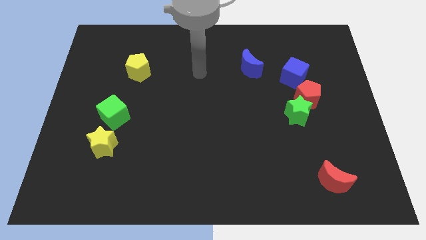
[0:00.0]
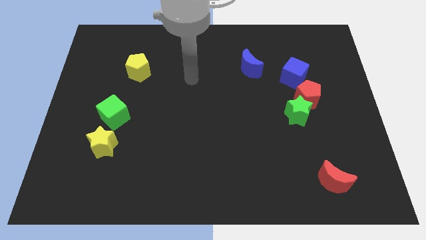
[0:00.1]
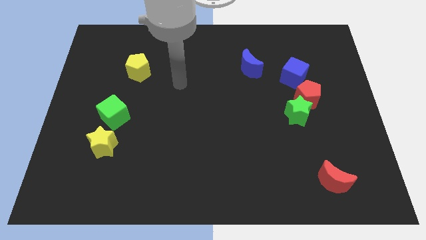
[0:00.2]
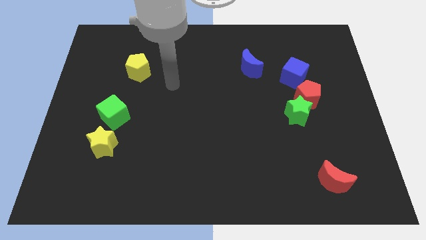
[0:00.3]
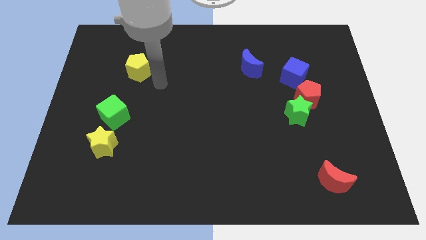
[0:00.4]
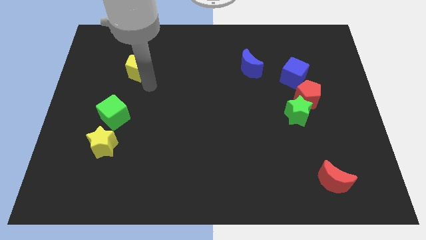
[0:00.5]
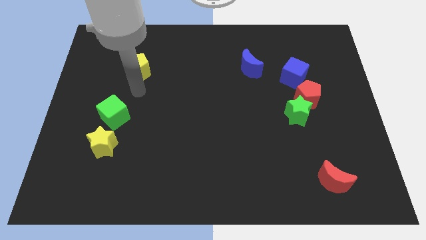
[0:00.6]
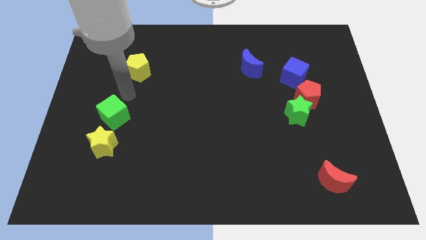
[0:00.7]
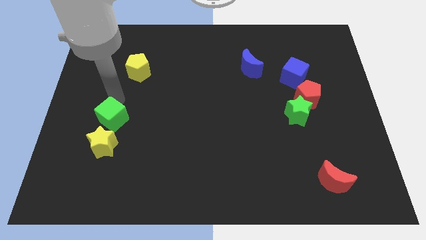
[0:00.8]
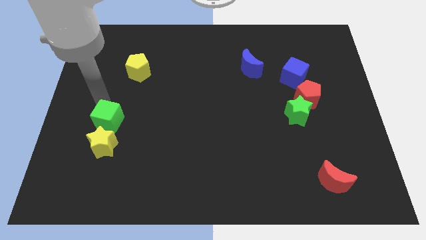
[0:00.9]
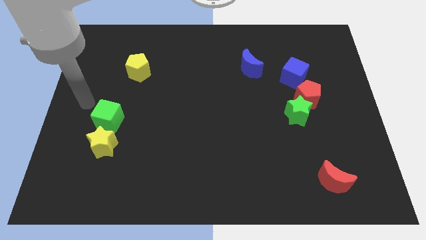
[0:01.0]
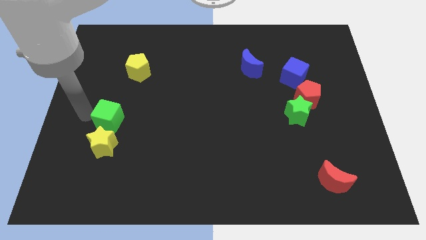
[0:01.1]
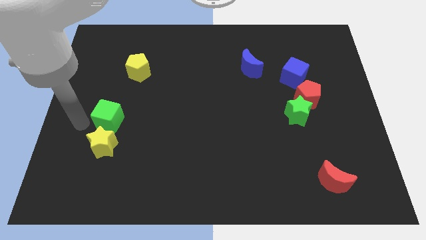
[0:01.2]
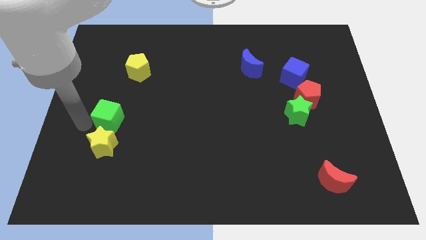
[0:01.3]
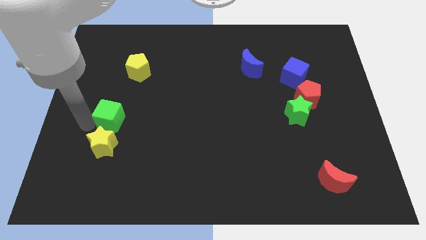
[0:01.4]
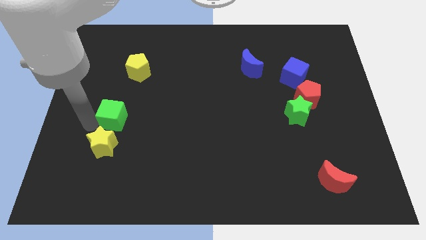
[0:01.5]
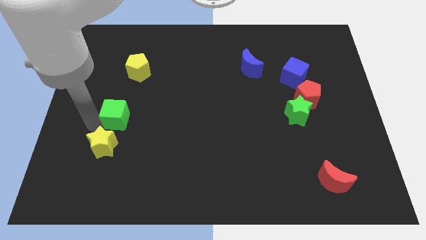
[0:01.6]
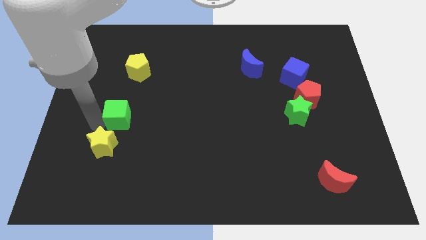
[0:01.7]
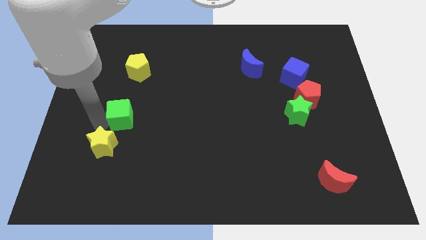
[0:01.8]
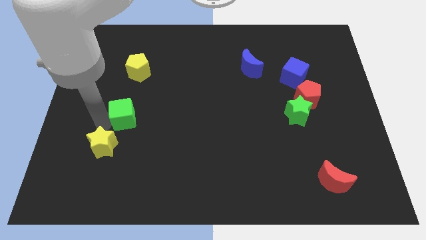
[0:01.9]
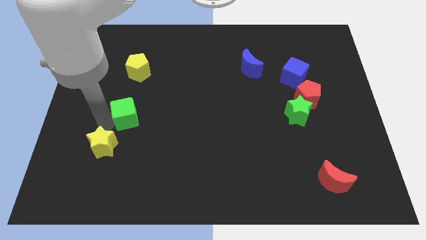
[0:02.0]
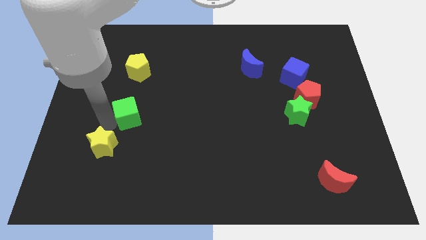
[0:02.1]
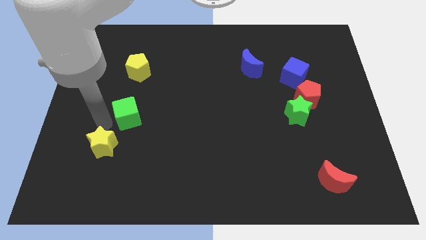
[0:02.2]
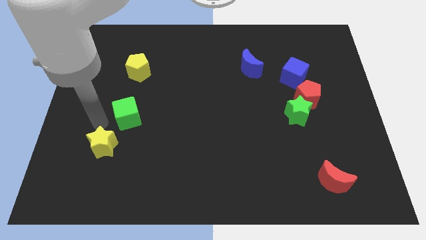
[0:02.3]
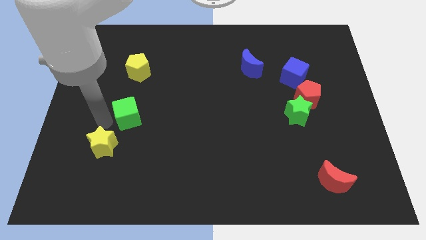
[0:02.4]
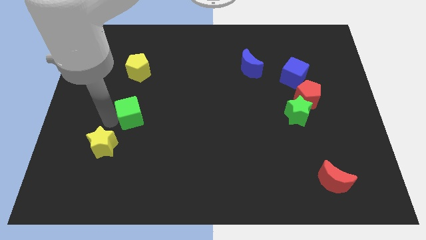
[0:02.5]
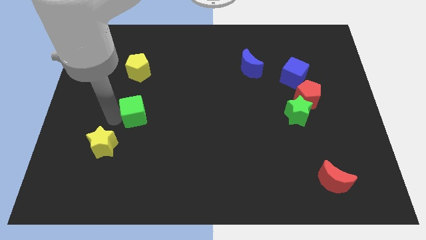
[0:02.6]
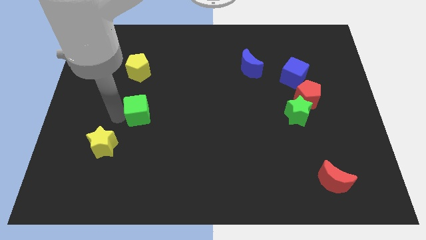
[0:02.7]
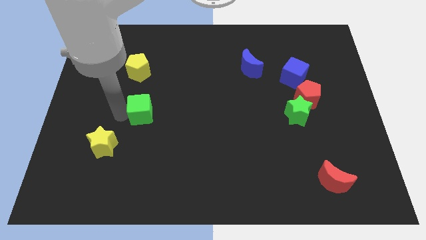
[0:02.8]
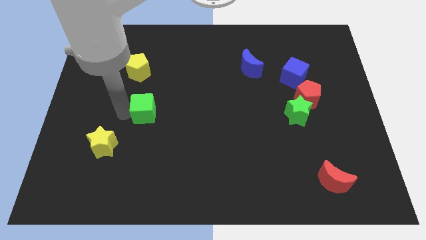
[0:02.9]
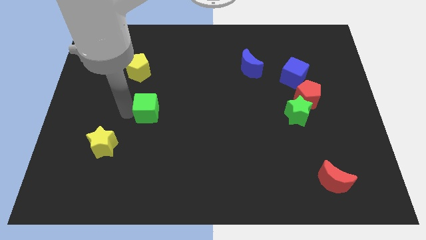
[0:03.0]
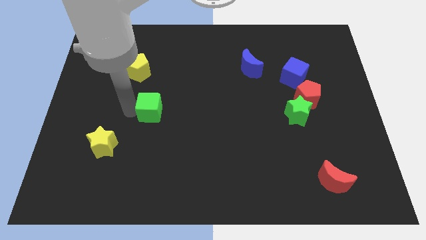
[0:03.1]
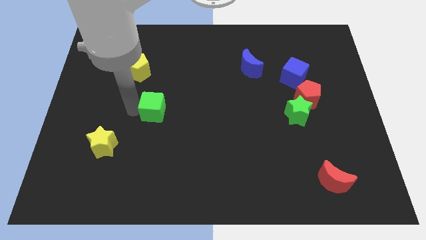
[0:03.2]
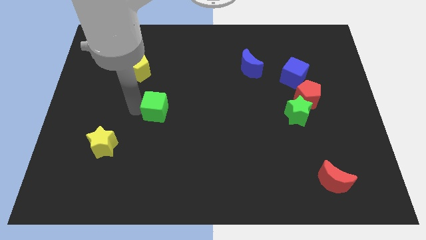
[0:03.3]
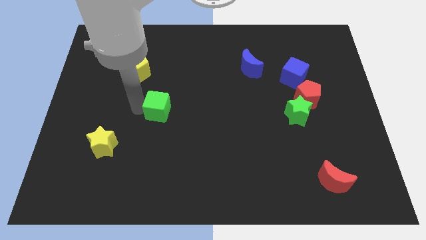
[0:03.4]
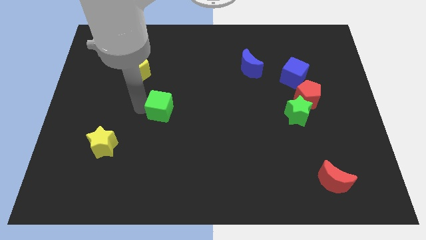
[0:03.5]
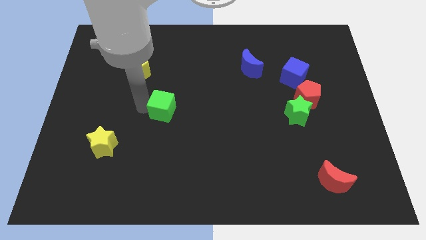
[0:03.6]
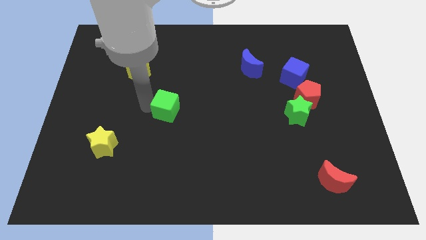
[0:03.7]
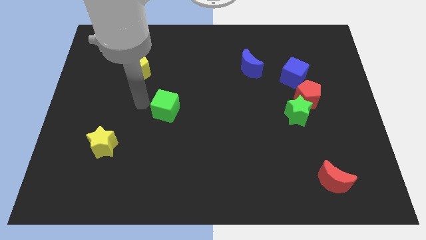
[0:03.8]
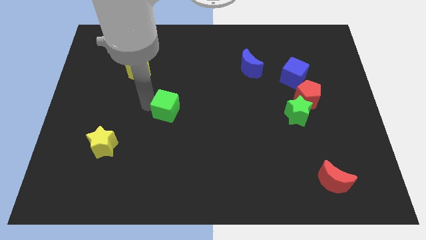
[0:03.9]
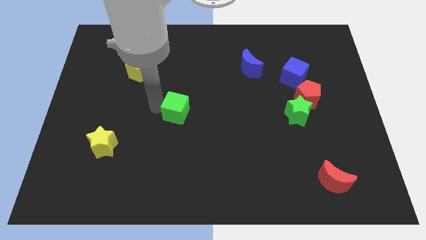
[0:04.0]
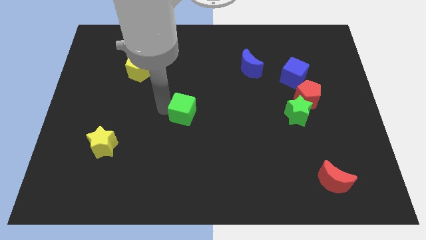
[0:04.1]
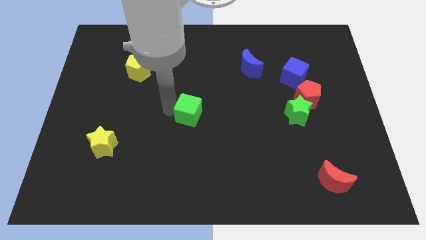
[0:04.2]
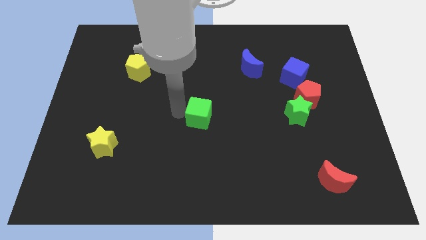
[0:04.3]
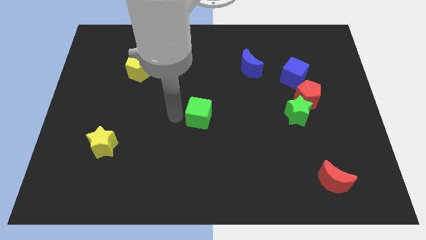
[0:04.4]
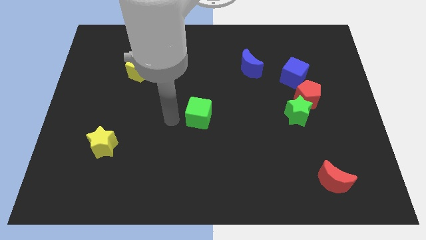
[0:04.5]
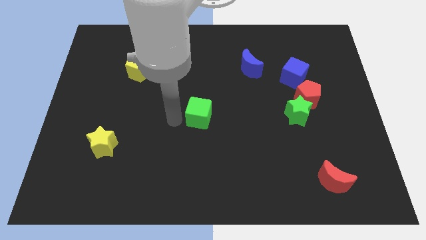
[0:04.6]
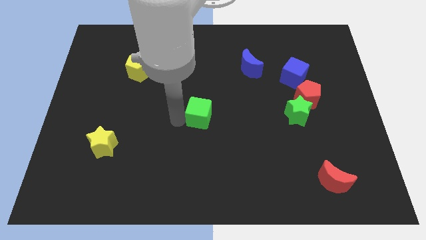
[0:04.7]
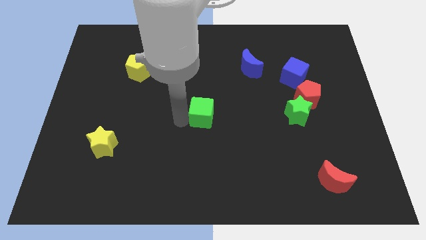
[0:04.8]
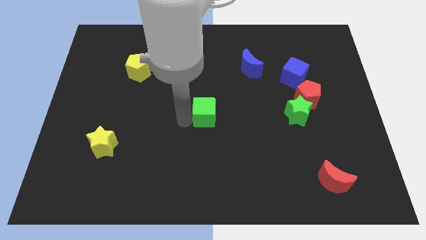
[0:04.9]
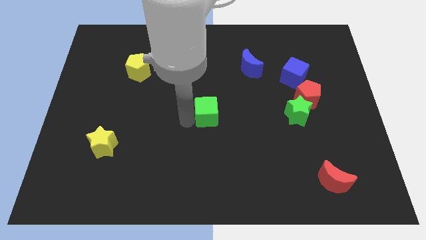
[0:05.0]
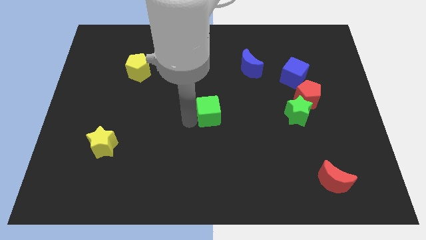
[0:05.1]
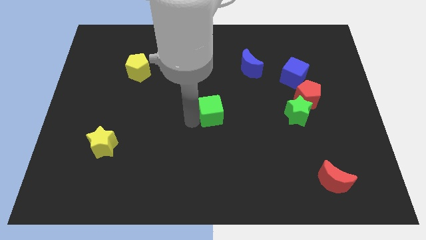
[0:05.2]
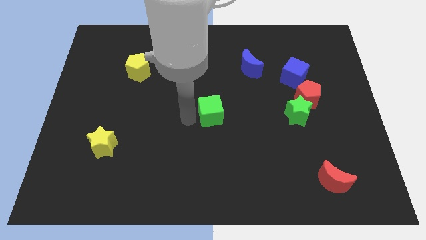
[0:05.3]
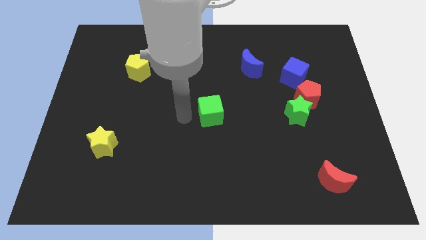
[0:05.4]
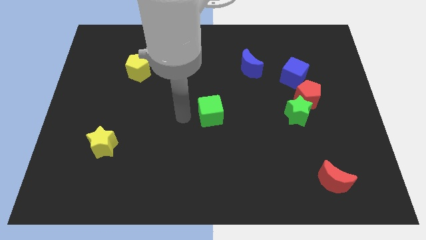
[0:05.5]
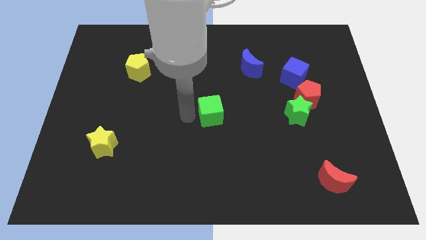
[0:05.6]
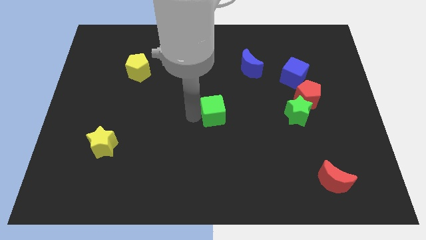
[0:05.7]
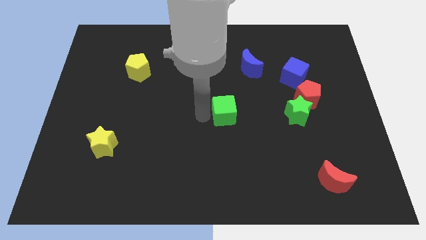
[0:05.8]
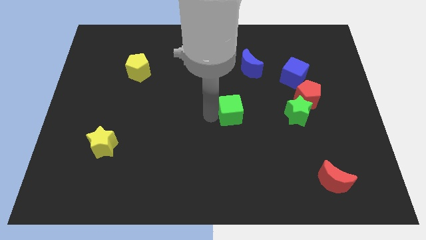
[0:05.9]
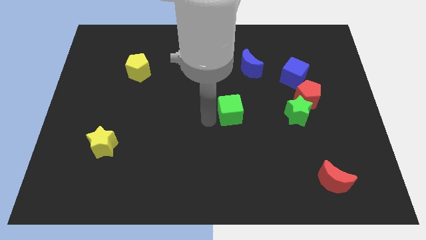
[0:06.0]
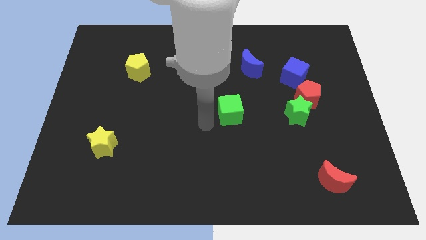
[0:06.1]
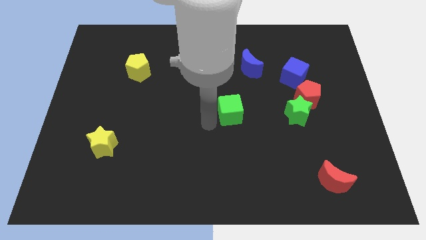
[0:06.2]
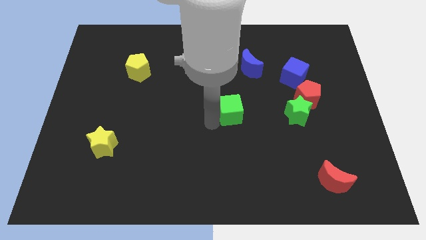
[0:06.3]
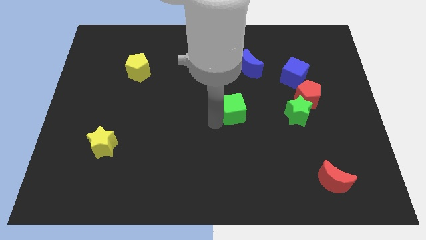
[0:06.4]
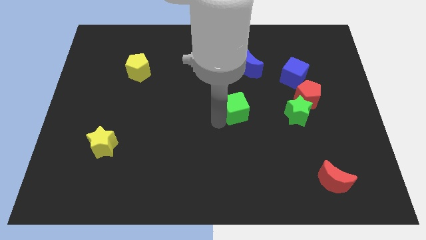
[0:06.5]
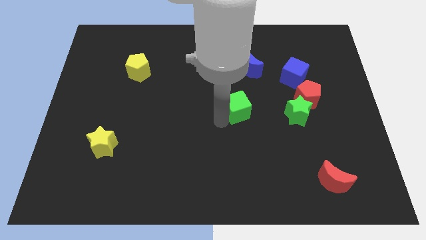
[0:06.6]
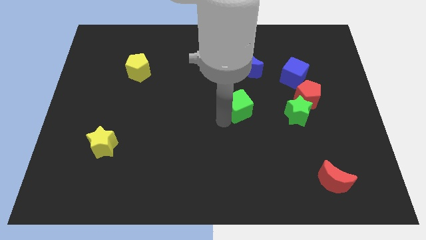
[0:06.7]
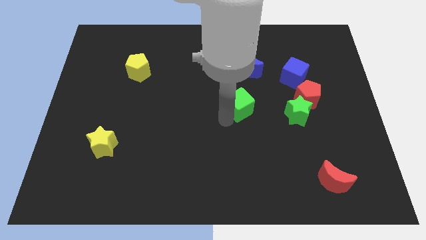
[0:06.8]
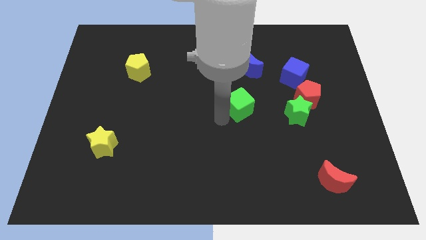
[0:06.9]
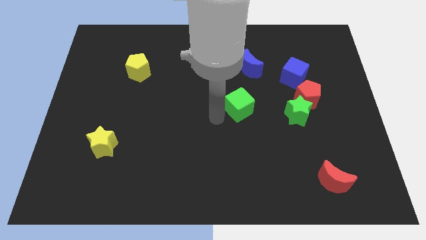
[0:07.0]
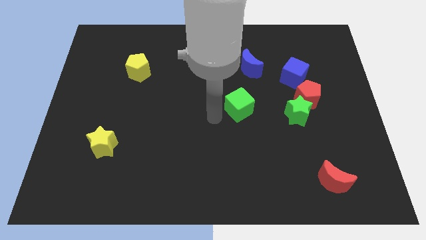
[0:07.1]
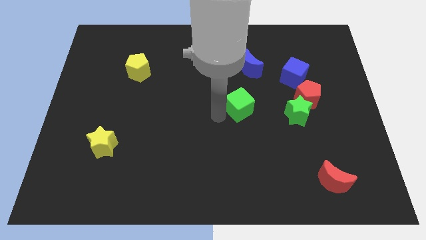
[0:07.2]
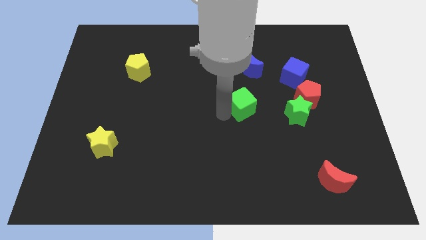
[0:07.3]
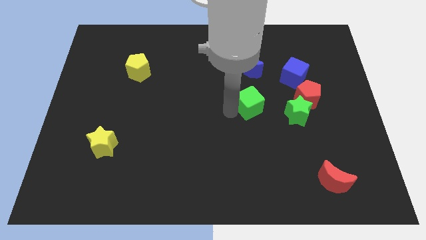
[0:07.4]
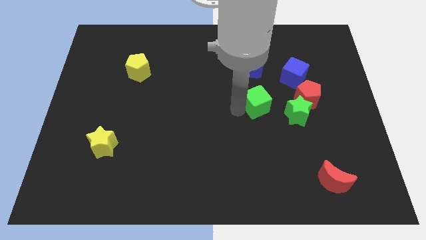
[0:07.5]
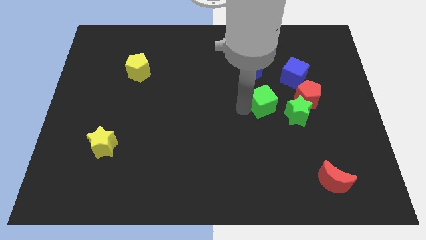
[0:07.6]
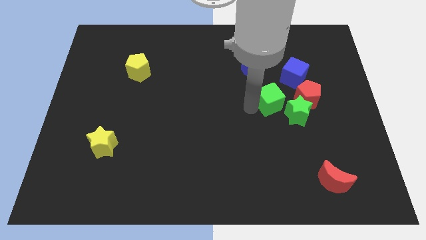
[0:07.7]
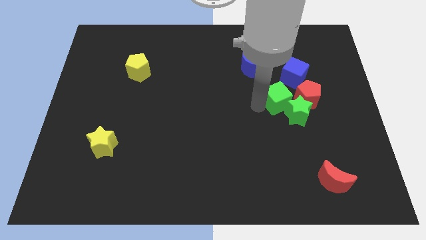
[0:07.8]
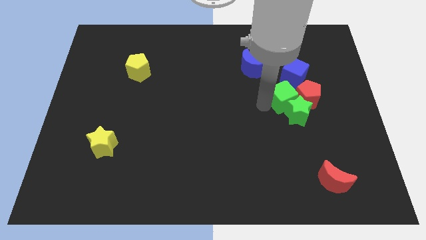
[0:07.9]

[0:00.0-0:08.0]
move the green cube next to the red pentagon

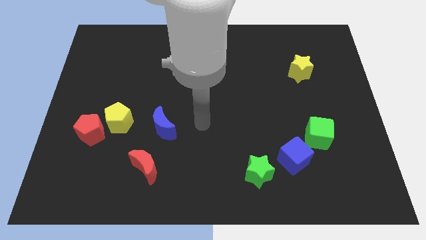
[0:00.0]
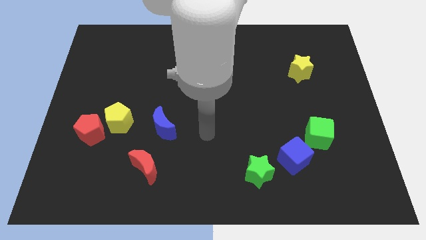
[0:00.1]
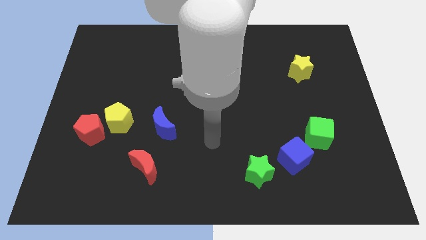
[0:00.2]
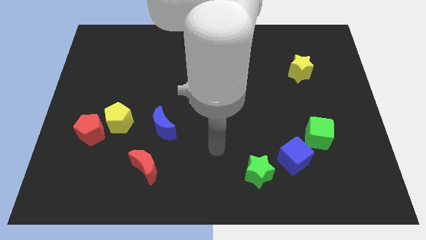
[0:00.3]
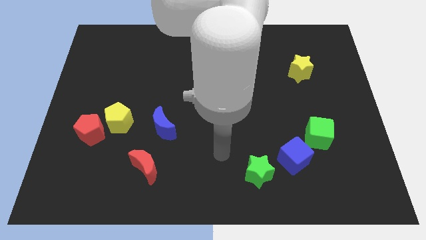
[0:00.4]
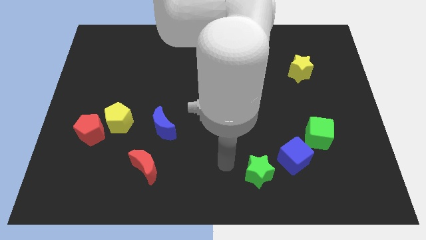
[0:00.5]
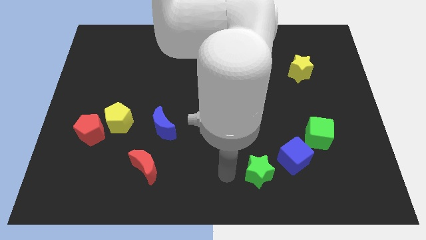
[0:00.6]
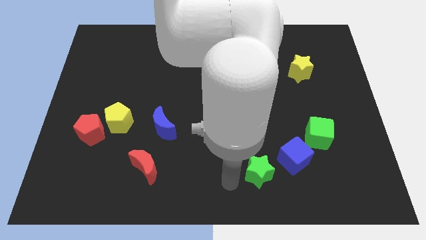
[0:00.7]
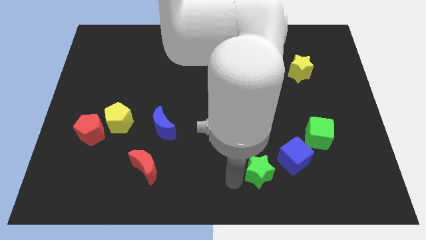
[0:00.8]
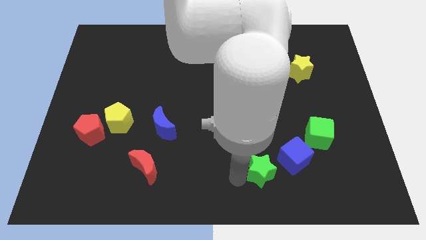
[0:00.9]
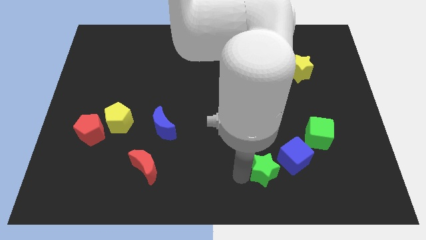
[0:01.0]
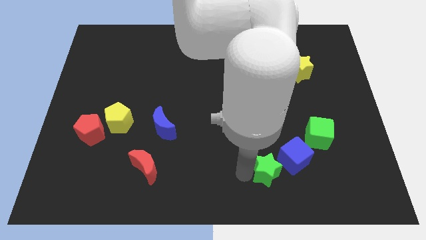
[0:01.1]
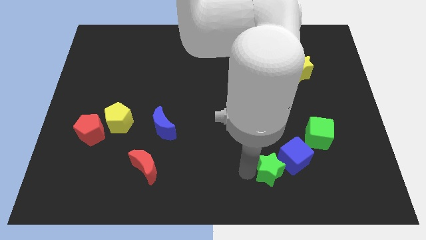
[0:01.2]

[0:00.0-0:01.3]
slide the green star close to the blue cube
